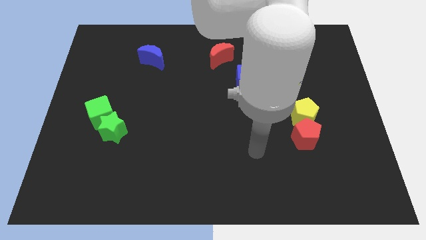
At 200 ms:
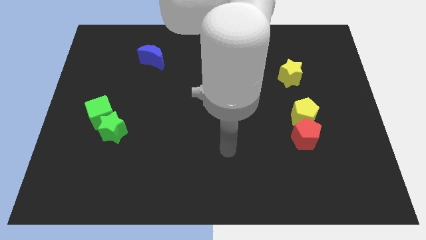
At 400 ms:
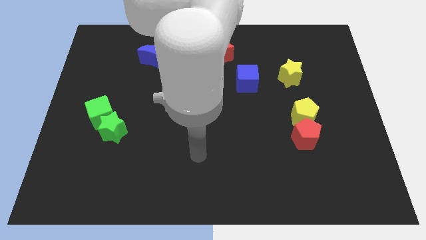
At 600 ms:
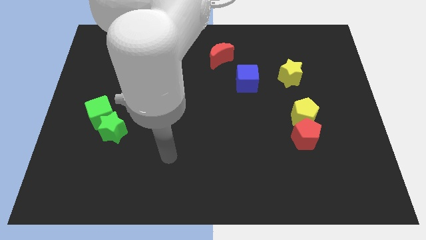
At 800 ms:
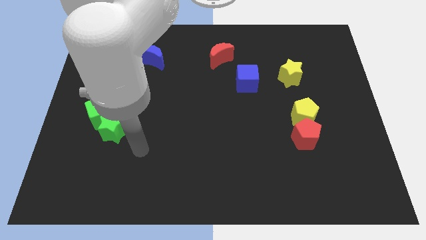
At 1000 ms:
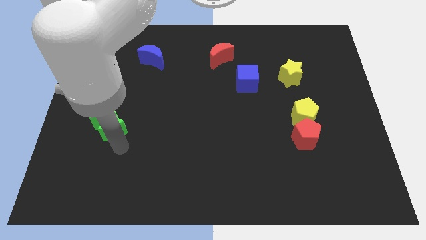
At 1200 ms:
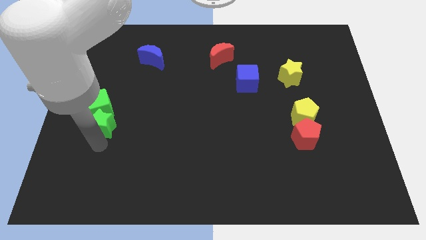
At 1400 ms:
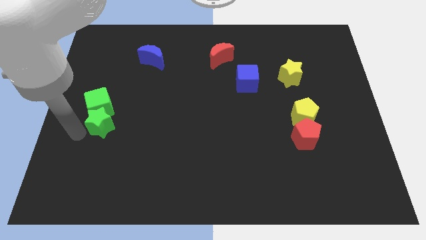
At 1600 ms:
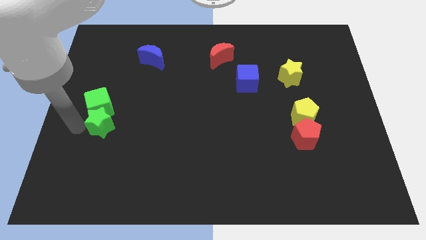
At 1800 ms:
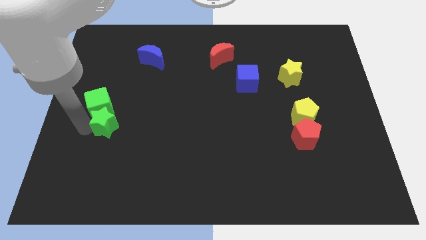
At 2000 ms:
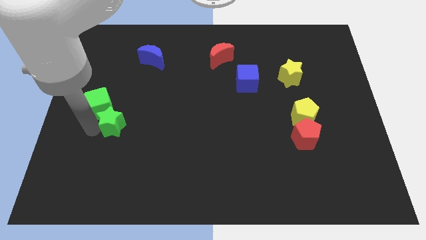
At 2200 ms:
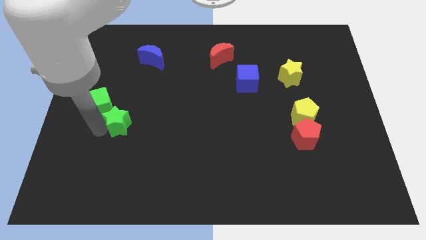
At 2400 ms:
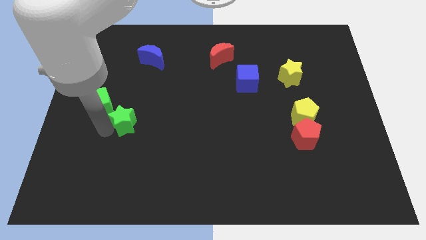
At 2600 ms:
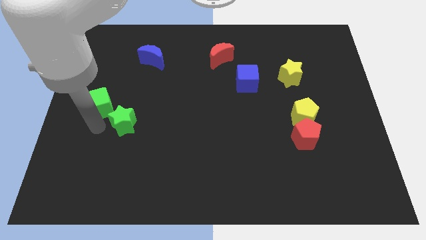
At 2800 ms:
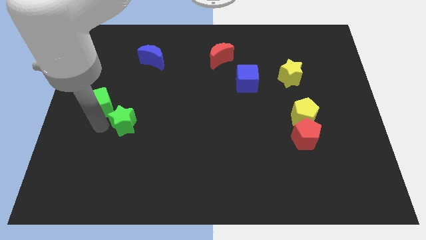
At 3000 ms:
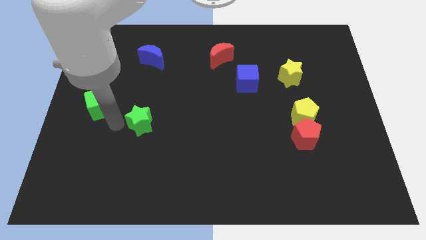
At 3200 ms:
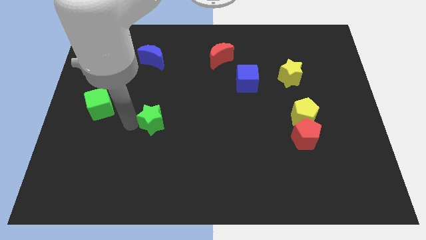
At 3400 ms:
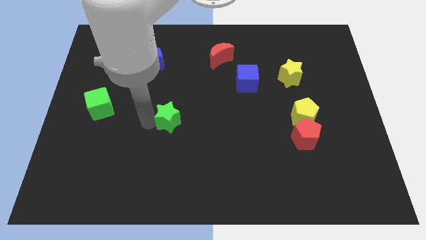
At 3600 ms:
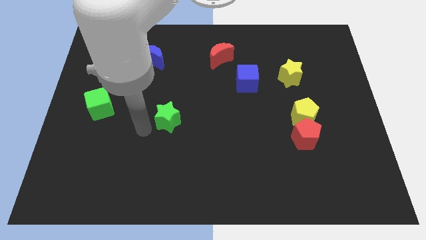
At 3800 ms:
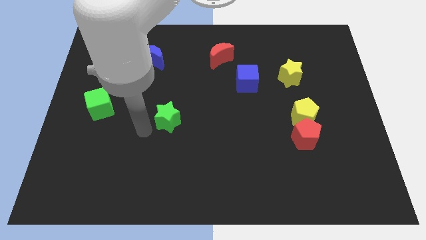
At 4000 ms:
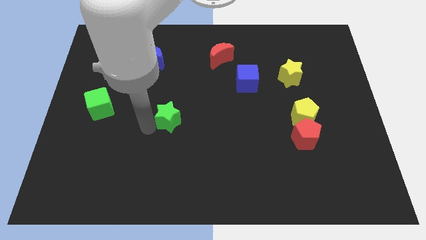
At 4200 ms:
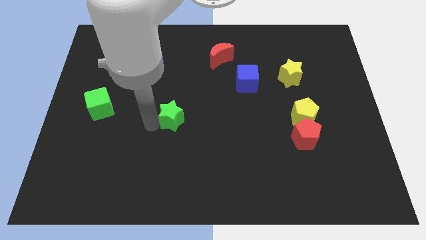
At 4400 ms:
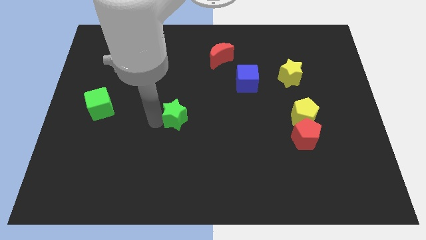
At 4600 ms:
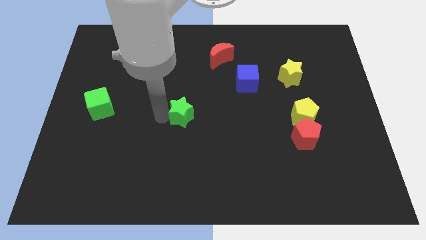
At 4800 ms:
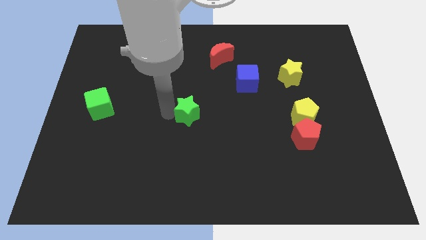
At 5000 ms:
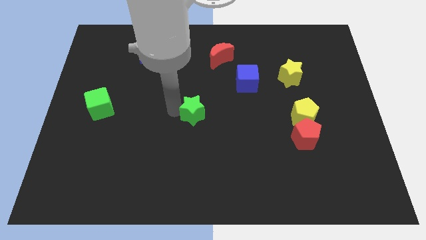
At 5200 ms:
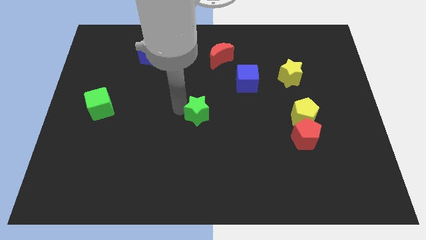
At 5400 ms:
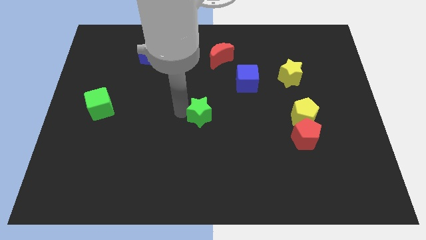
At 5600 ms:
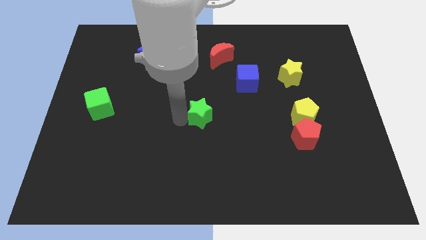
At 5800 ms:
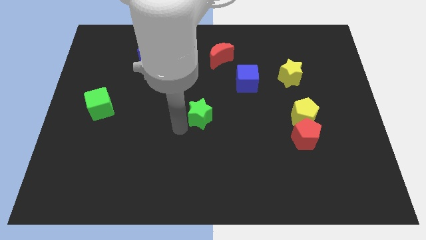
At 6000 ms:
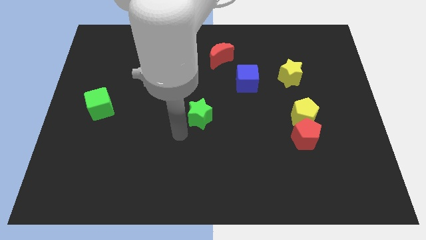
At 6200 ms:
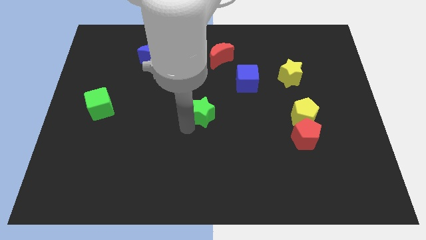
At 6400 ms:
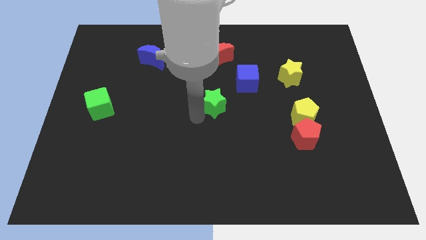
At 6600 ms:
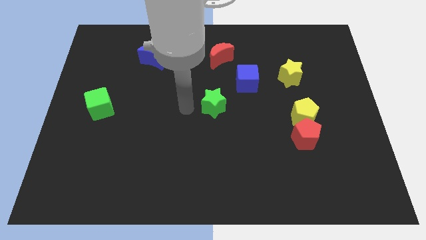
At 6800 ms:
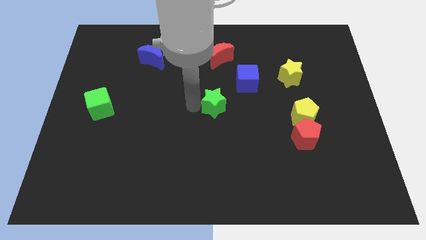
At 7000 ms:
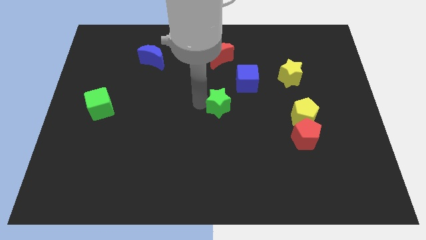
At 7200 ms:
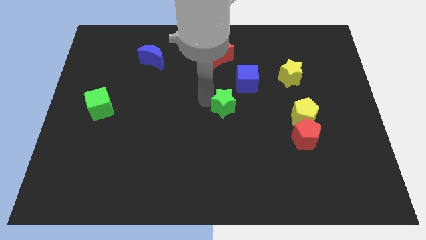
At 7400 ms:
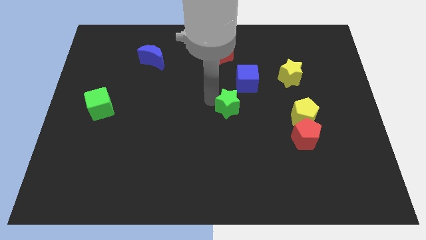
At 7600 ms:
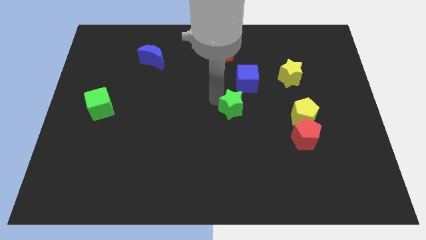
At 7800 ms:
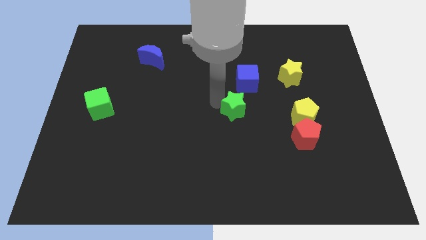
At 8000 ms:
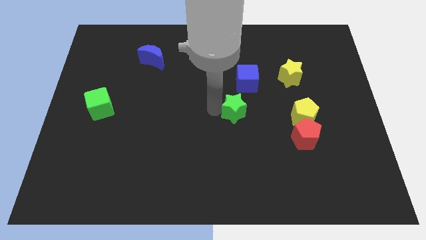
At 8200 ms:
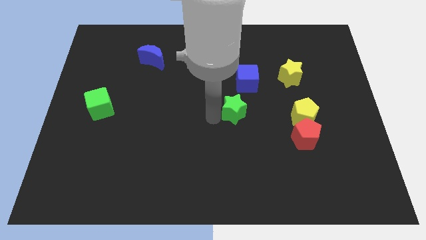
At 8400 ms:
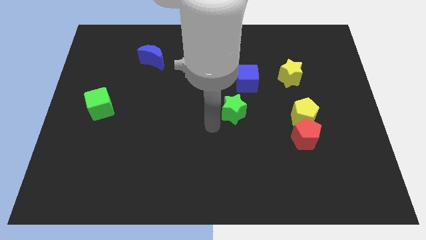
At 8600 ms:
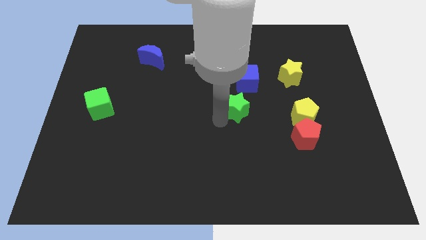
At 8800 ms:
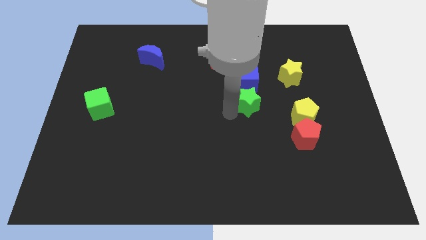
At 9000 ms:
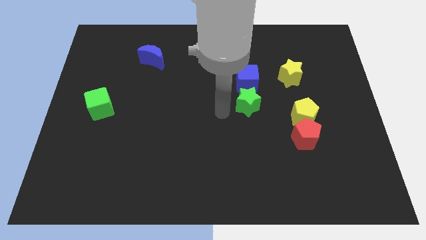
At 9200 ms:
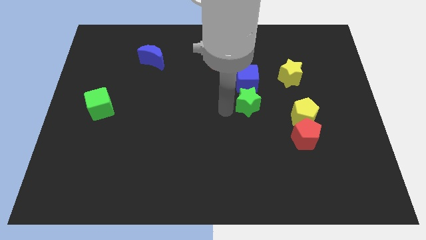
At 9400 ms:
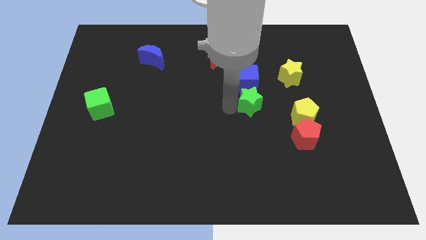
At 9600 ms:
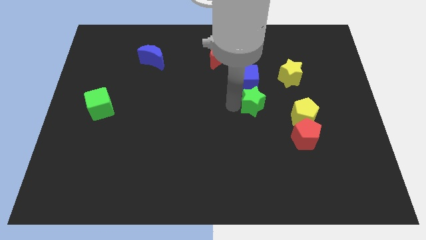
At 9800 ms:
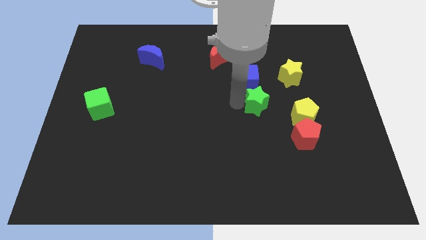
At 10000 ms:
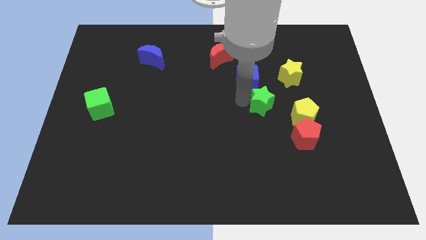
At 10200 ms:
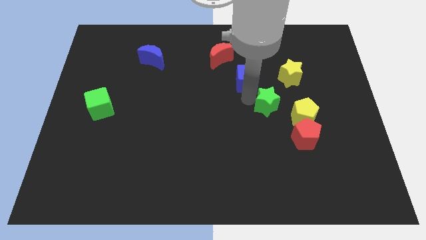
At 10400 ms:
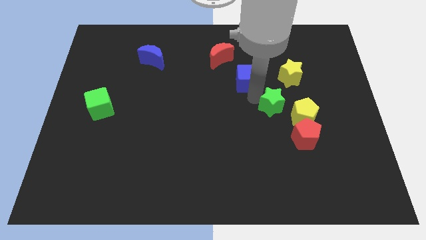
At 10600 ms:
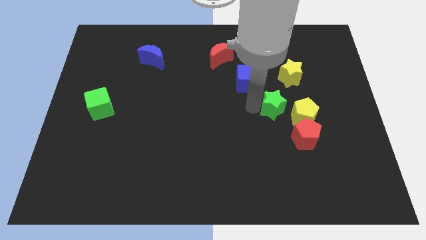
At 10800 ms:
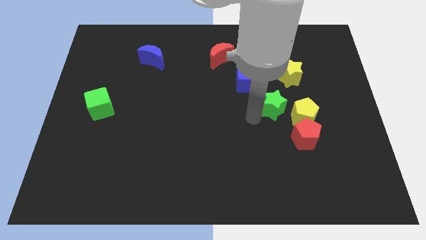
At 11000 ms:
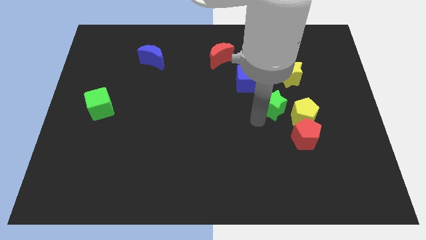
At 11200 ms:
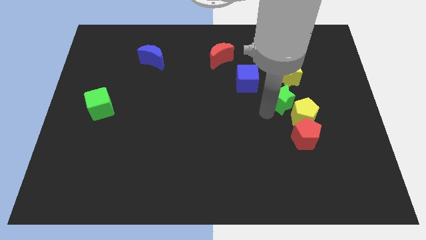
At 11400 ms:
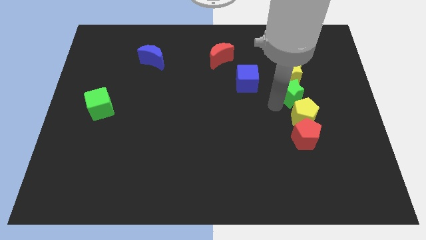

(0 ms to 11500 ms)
move the green star right of the blue cube

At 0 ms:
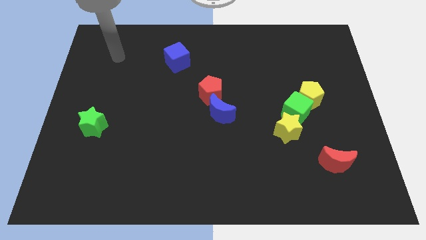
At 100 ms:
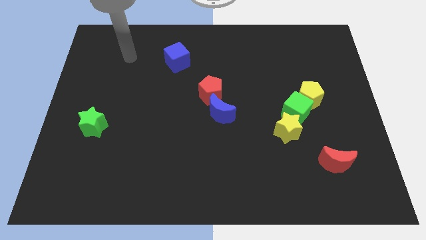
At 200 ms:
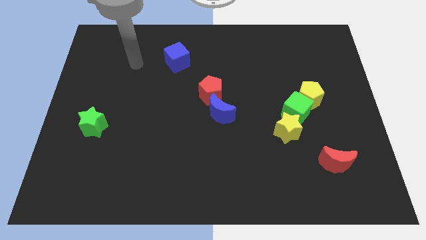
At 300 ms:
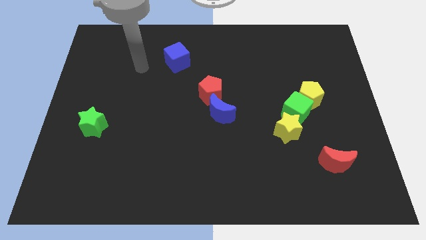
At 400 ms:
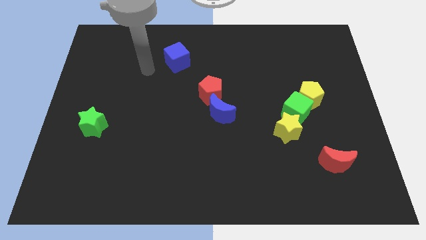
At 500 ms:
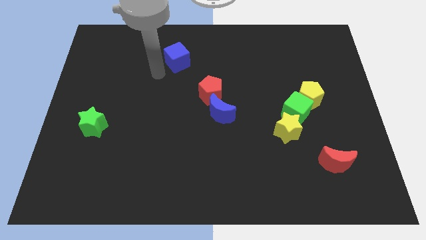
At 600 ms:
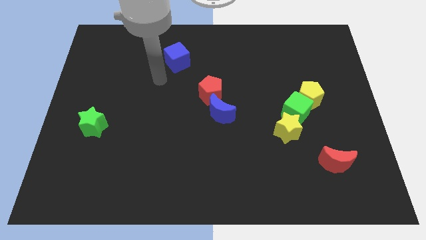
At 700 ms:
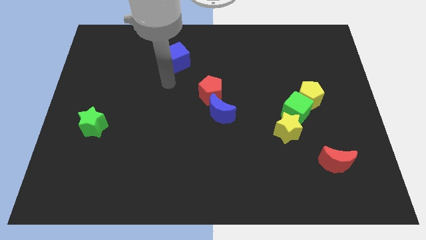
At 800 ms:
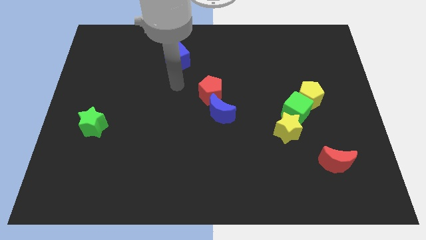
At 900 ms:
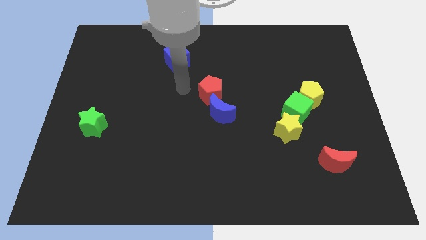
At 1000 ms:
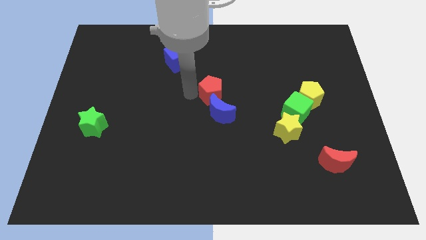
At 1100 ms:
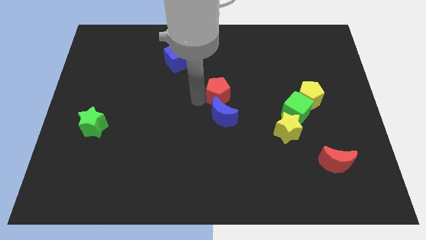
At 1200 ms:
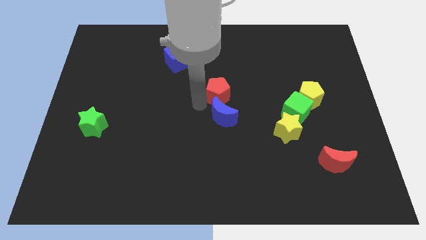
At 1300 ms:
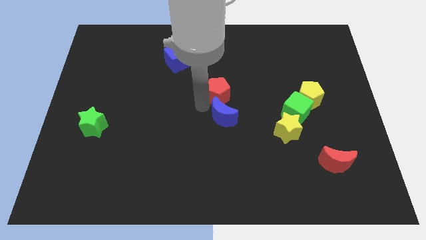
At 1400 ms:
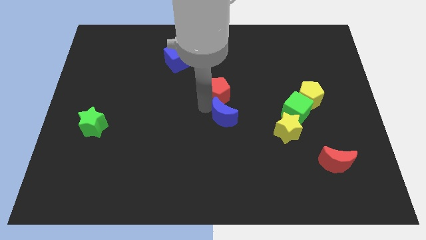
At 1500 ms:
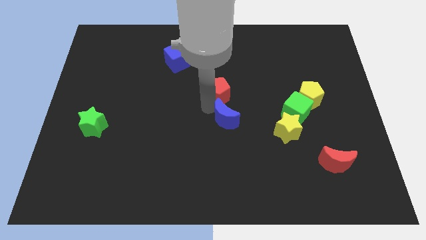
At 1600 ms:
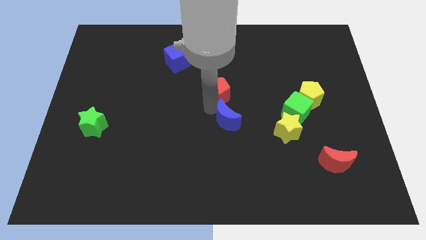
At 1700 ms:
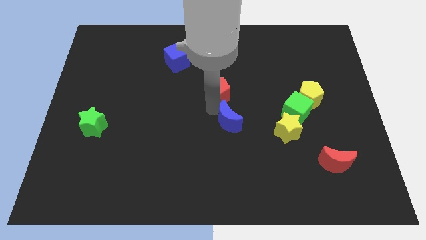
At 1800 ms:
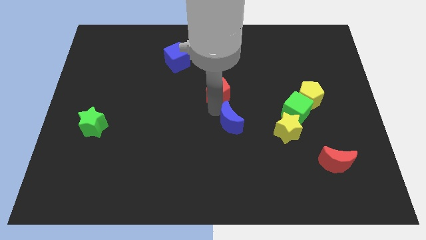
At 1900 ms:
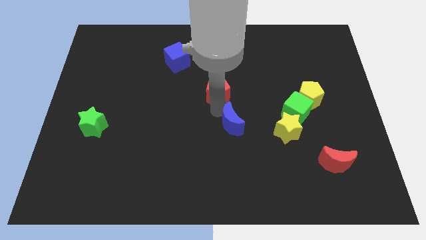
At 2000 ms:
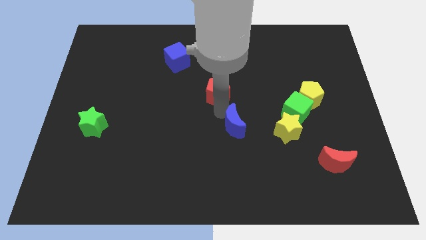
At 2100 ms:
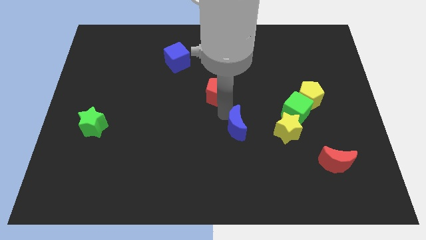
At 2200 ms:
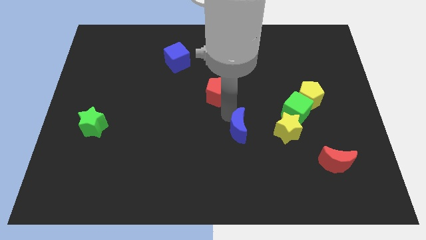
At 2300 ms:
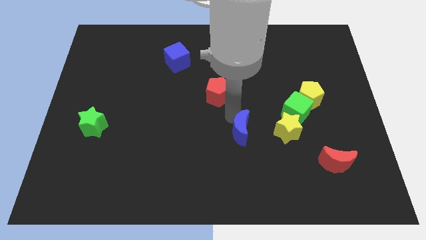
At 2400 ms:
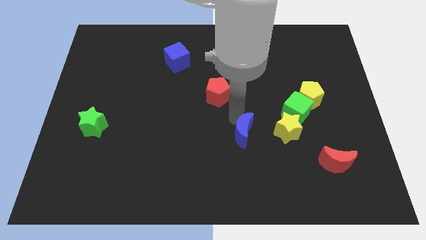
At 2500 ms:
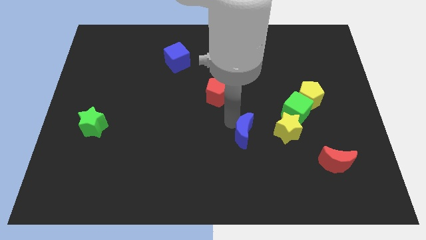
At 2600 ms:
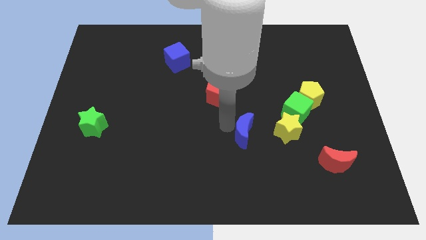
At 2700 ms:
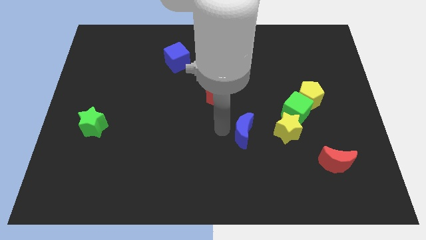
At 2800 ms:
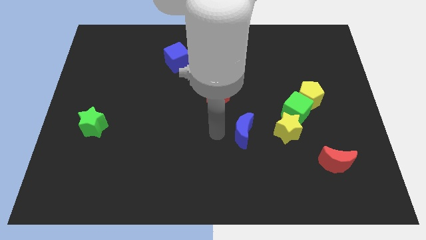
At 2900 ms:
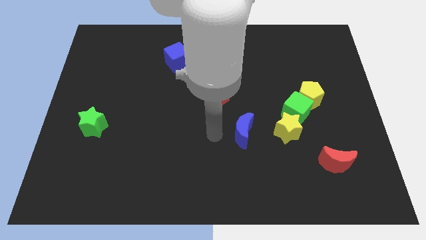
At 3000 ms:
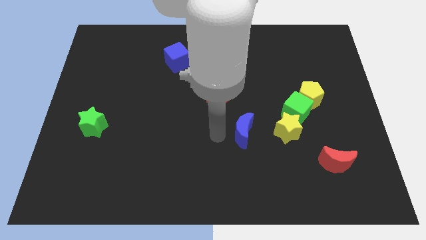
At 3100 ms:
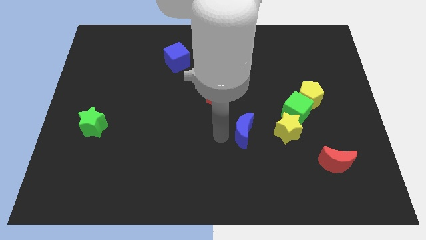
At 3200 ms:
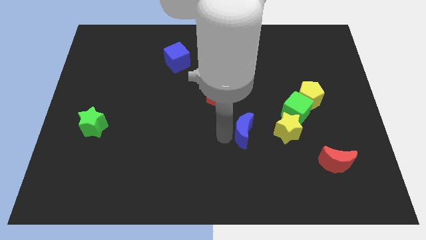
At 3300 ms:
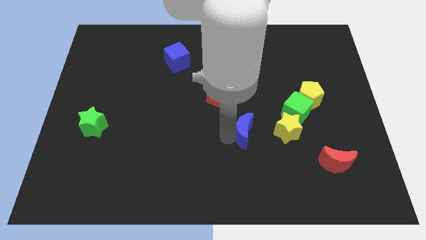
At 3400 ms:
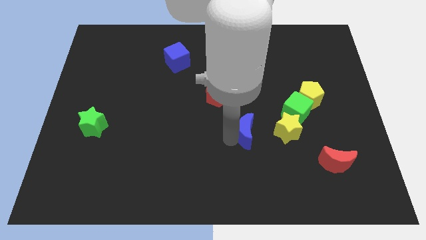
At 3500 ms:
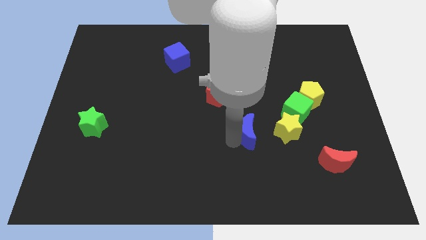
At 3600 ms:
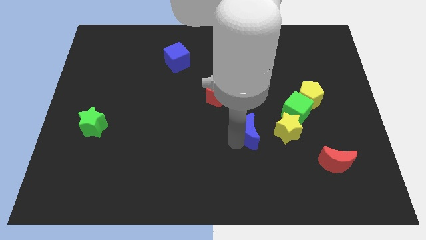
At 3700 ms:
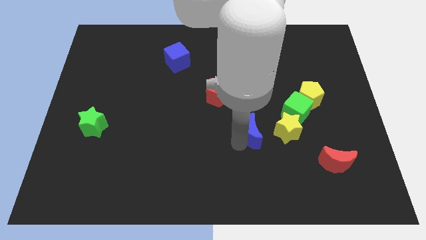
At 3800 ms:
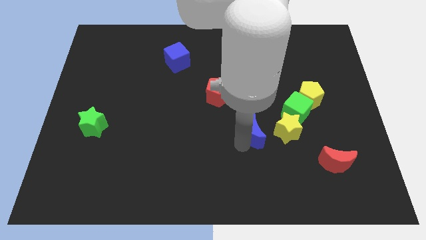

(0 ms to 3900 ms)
slide the blue moon to the bottom left side of the green cube
